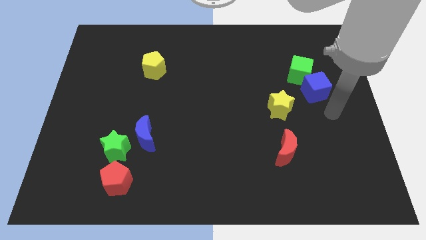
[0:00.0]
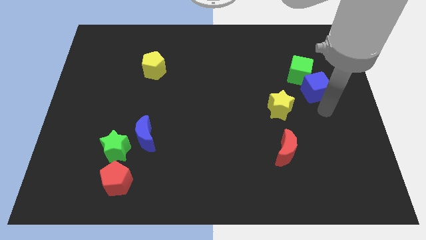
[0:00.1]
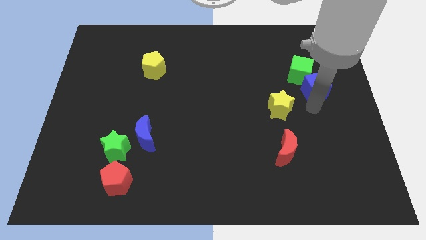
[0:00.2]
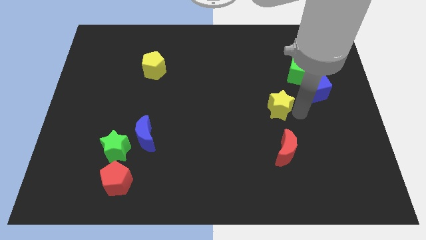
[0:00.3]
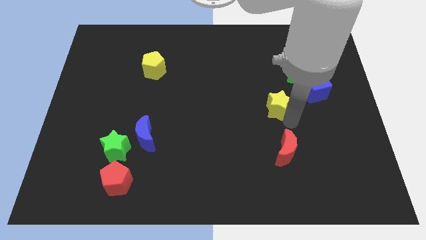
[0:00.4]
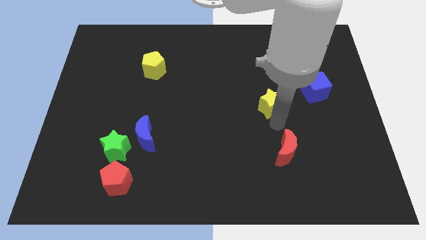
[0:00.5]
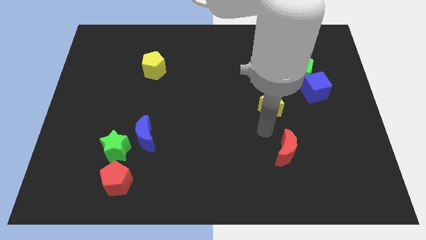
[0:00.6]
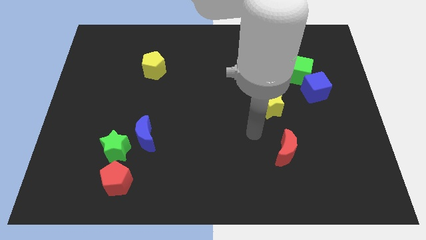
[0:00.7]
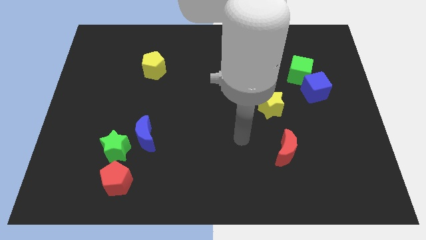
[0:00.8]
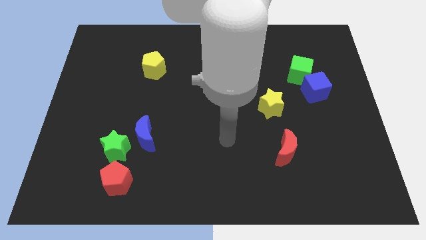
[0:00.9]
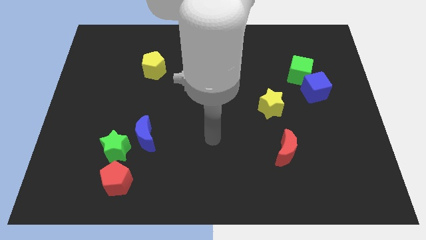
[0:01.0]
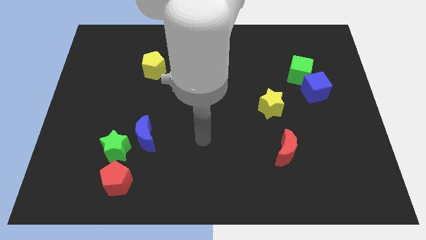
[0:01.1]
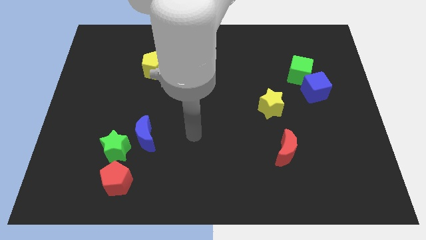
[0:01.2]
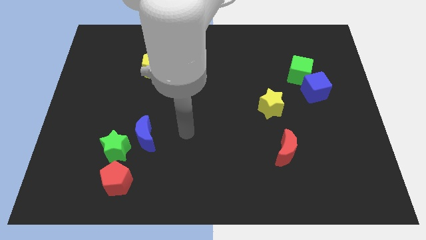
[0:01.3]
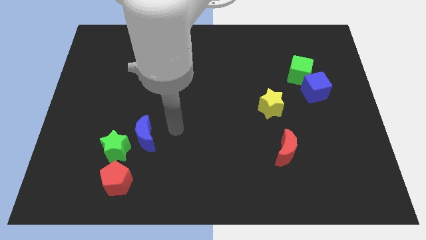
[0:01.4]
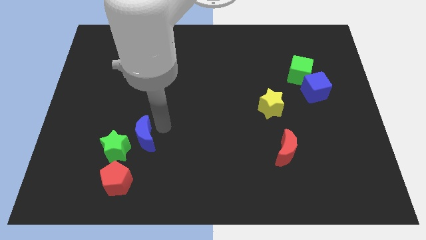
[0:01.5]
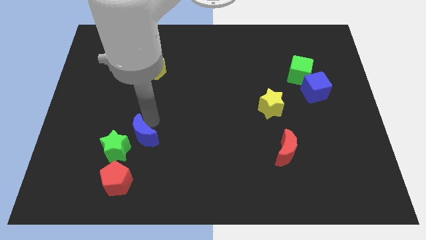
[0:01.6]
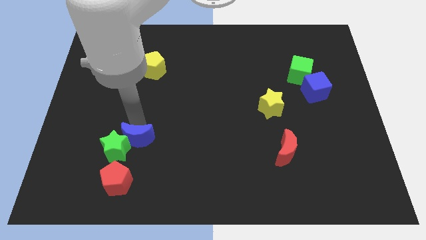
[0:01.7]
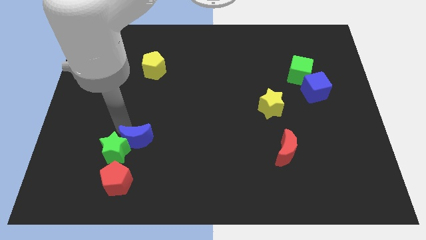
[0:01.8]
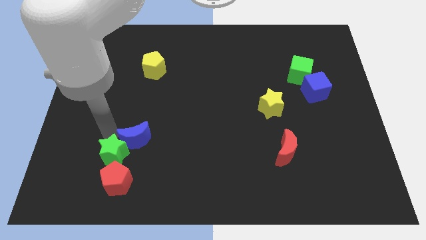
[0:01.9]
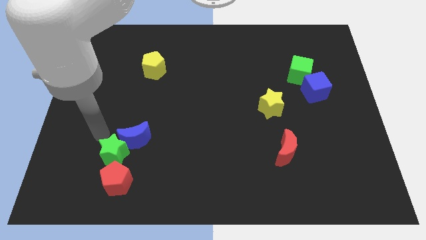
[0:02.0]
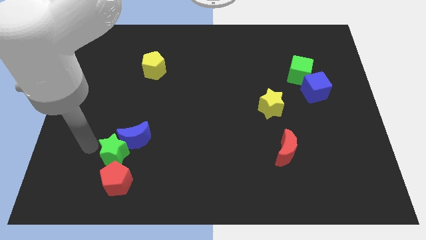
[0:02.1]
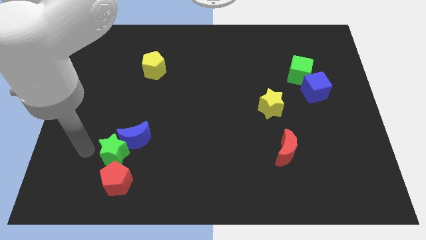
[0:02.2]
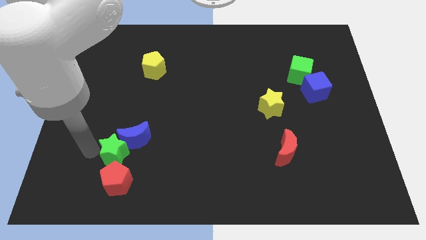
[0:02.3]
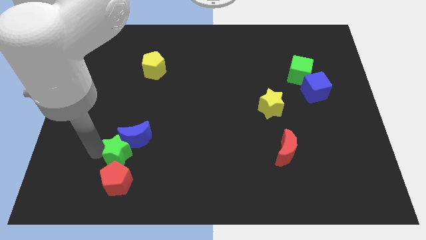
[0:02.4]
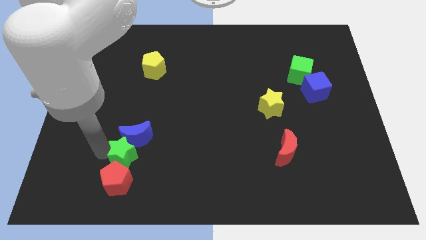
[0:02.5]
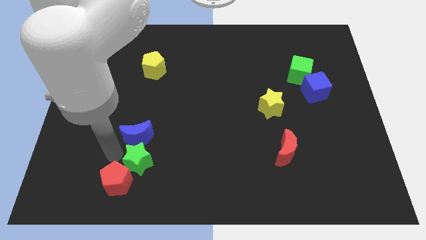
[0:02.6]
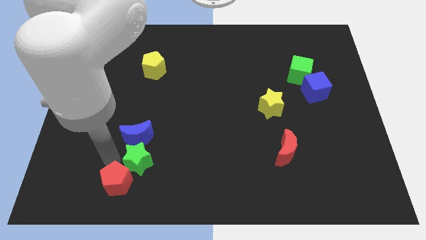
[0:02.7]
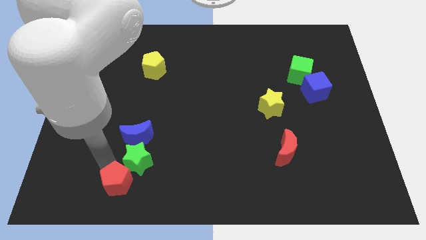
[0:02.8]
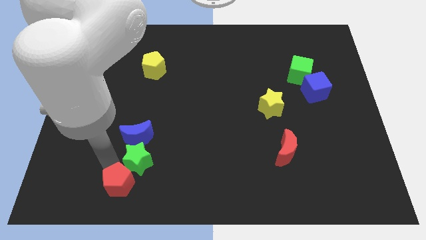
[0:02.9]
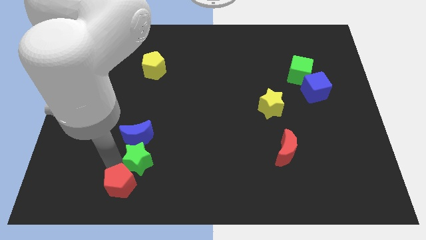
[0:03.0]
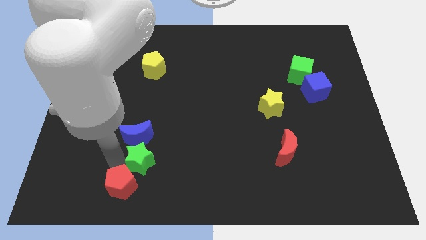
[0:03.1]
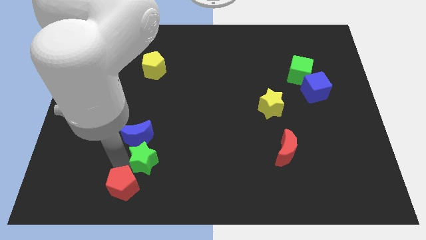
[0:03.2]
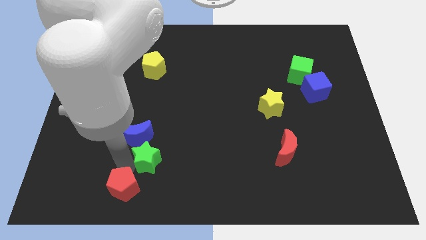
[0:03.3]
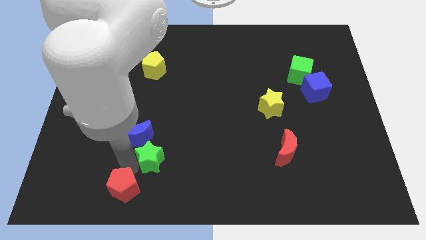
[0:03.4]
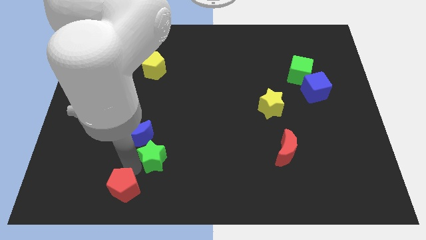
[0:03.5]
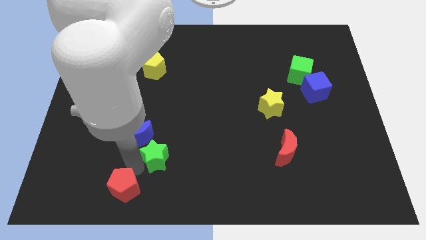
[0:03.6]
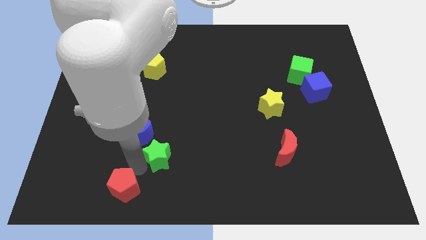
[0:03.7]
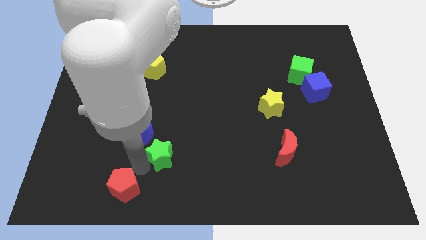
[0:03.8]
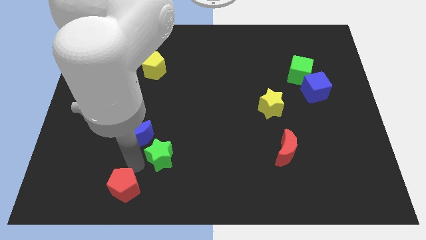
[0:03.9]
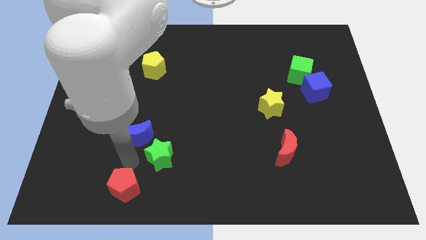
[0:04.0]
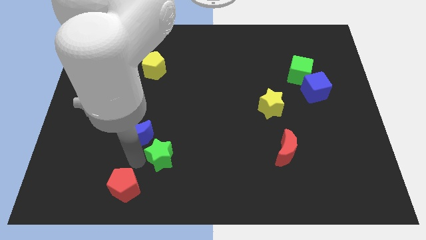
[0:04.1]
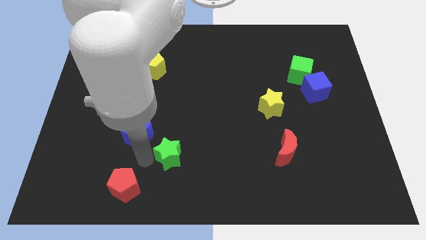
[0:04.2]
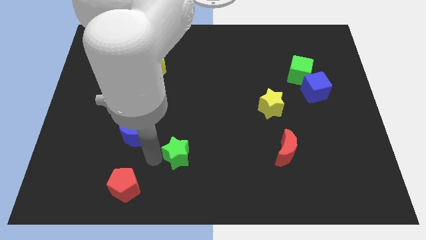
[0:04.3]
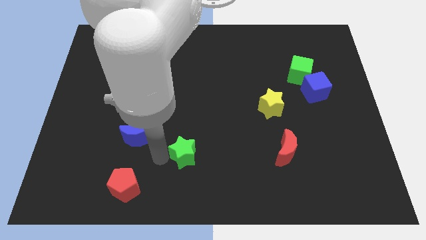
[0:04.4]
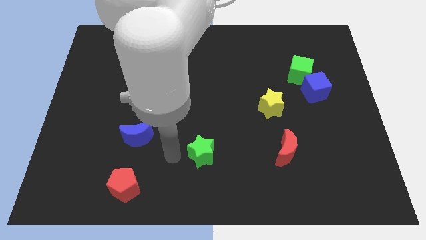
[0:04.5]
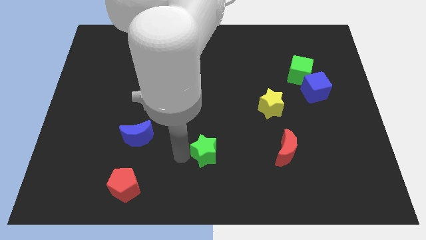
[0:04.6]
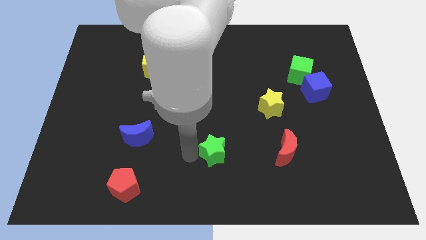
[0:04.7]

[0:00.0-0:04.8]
push the green star right

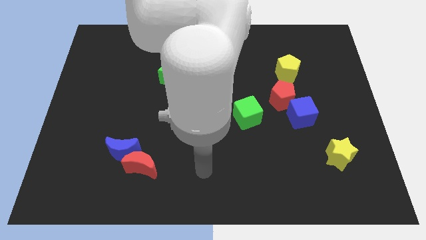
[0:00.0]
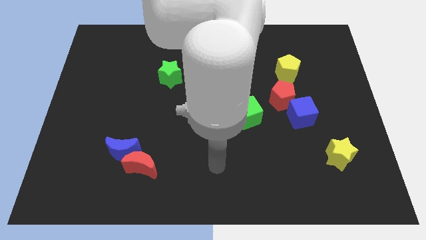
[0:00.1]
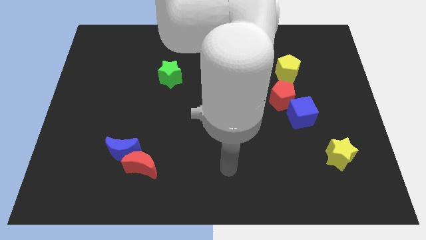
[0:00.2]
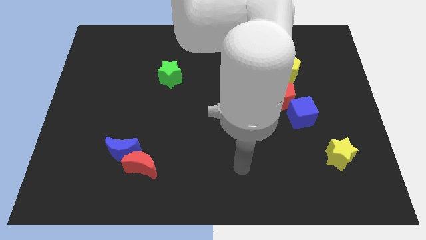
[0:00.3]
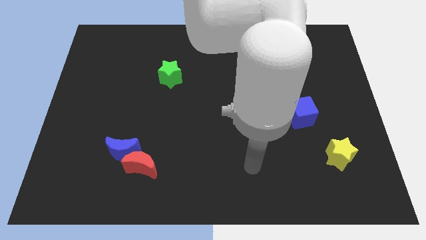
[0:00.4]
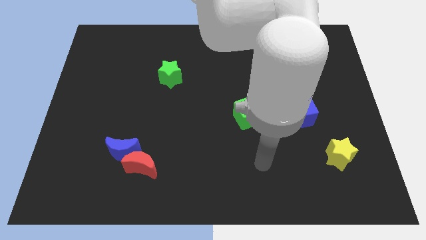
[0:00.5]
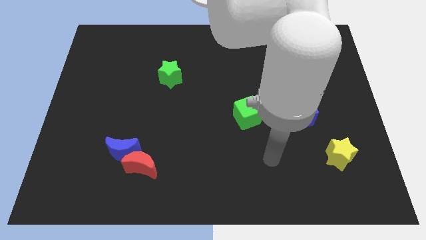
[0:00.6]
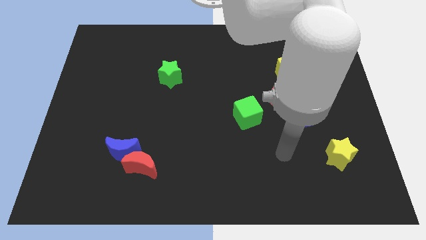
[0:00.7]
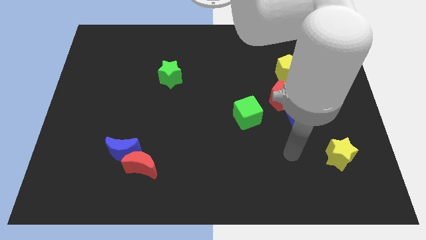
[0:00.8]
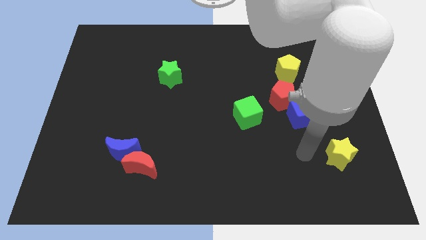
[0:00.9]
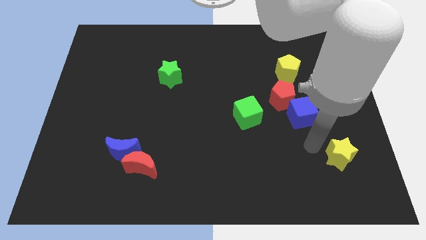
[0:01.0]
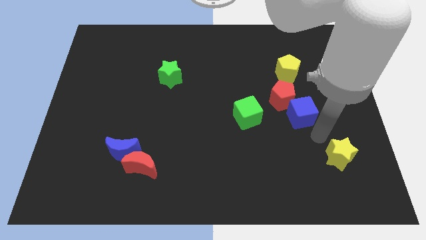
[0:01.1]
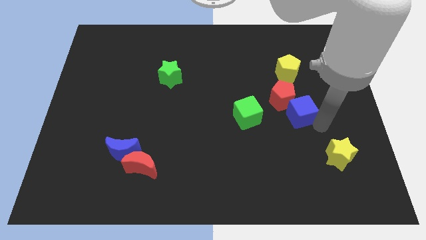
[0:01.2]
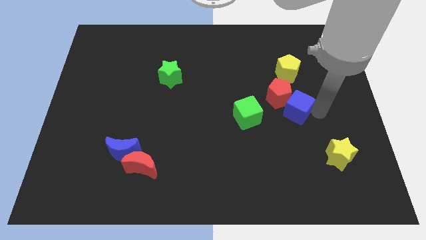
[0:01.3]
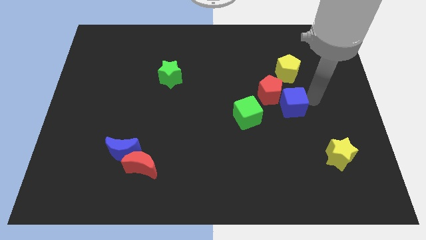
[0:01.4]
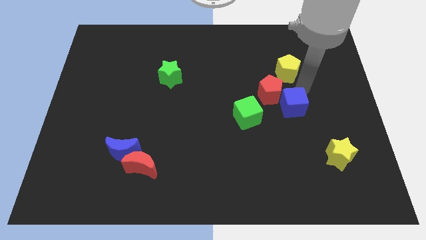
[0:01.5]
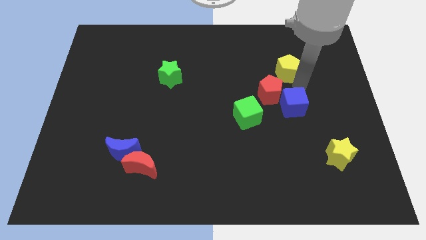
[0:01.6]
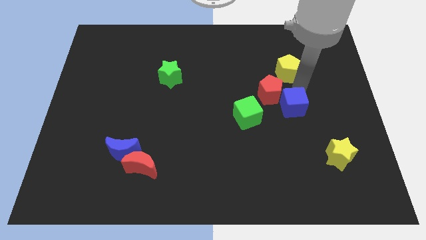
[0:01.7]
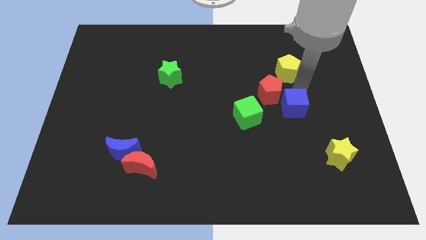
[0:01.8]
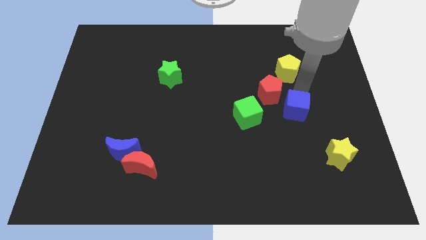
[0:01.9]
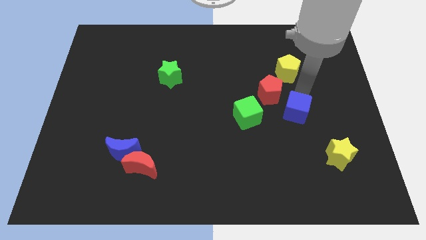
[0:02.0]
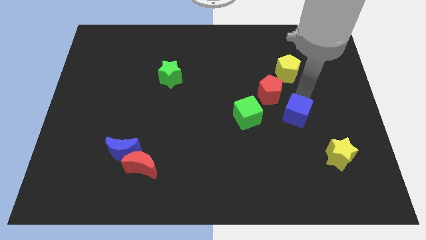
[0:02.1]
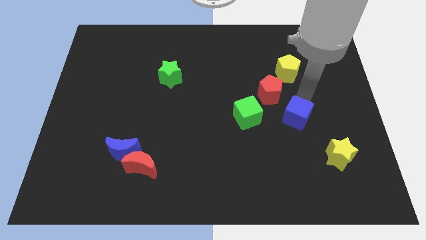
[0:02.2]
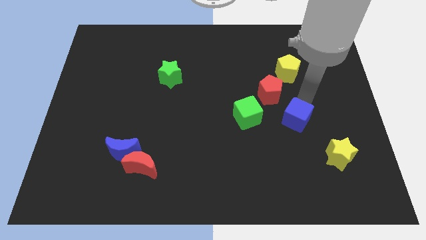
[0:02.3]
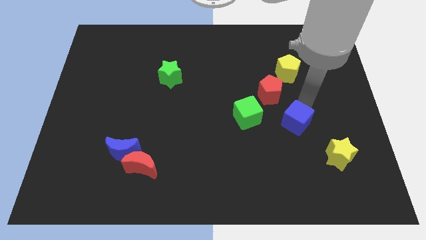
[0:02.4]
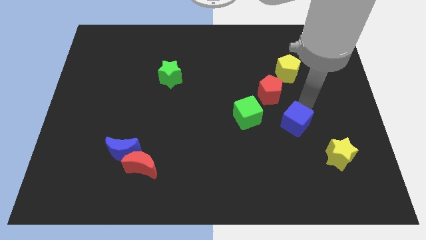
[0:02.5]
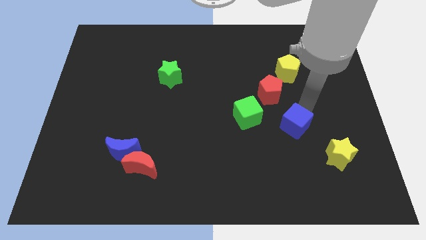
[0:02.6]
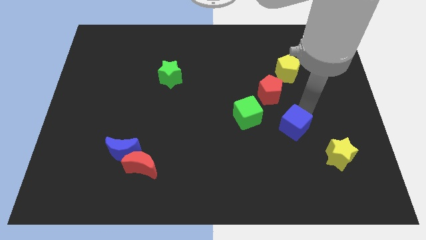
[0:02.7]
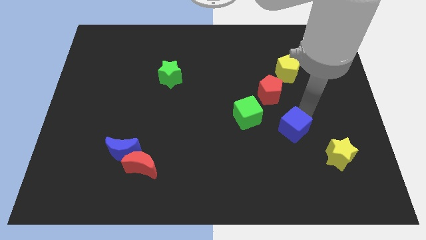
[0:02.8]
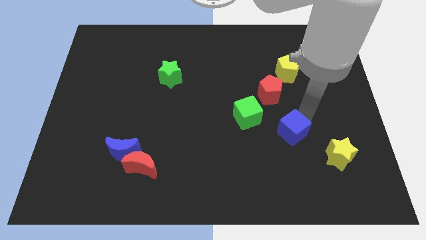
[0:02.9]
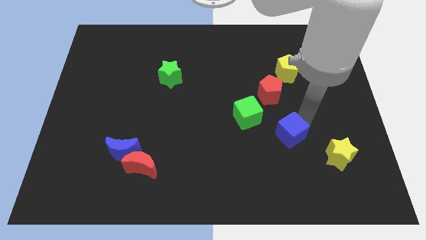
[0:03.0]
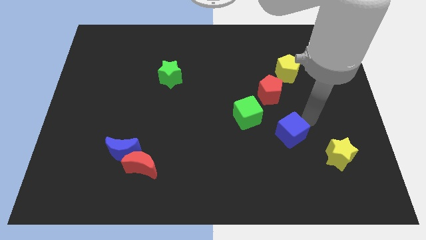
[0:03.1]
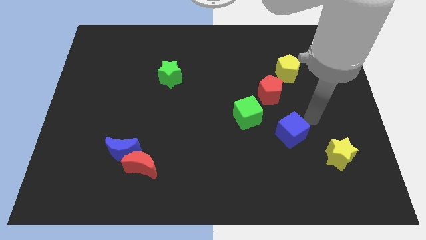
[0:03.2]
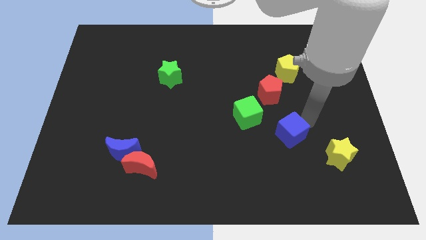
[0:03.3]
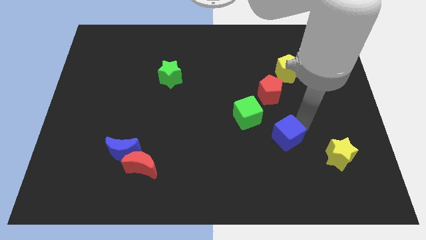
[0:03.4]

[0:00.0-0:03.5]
slightly slide the blue cube diagonally down and to the left
